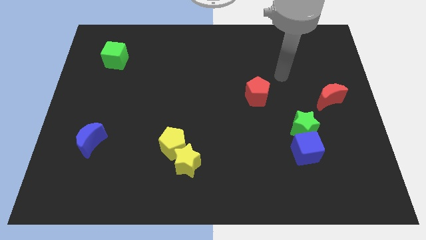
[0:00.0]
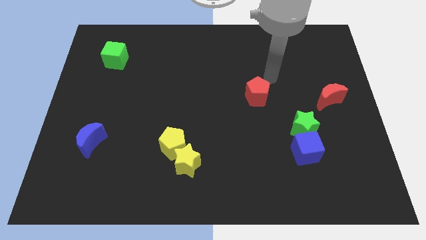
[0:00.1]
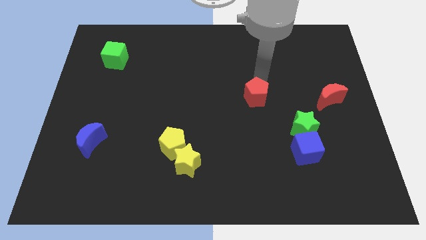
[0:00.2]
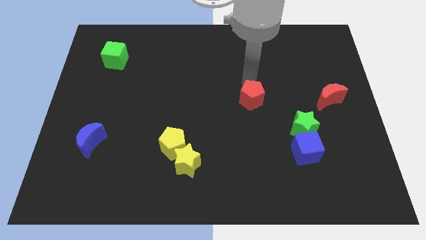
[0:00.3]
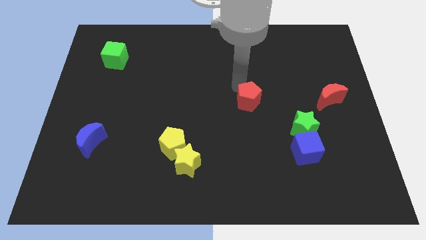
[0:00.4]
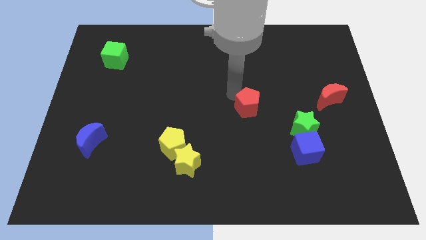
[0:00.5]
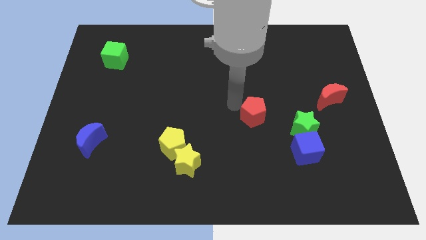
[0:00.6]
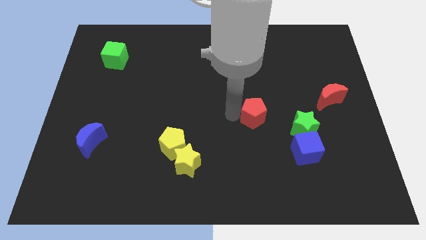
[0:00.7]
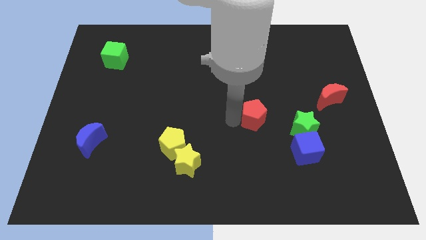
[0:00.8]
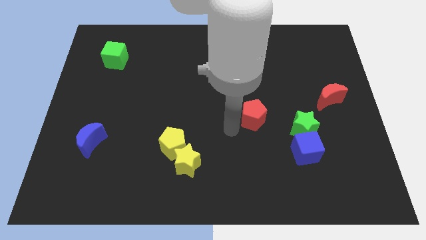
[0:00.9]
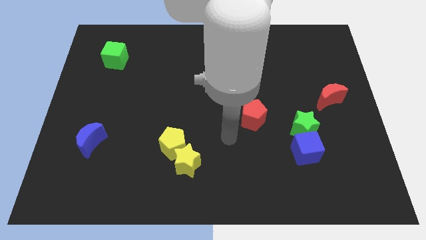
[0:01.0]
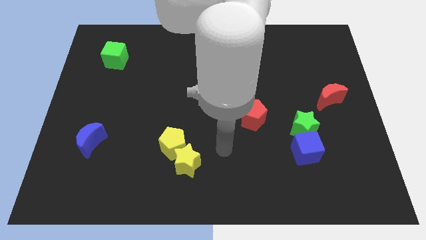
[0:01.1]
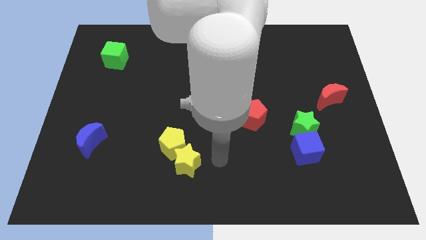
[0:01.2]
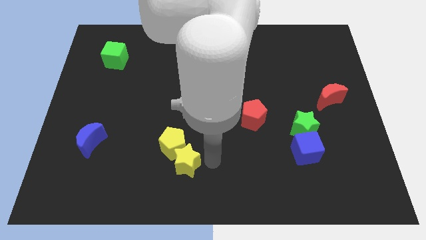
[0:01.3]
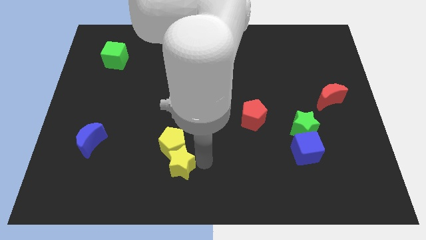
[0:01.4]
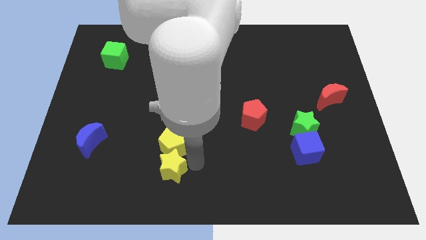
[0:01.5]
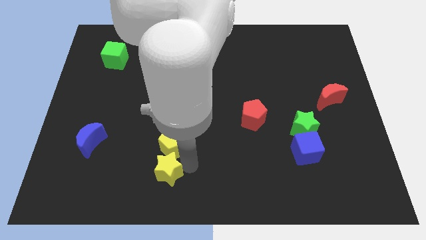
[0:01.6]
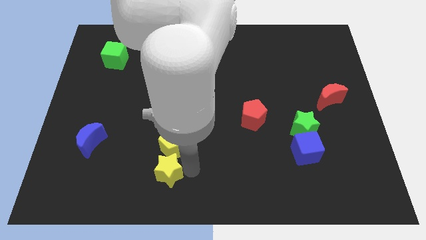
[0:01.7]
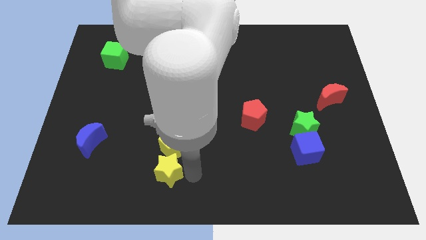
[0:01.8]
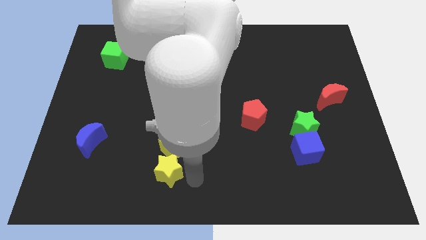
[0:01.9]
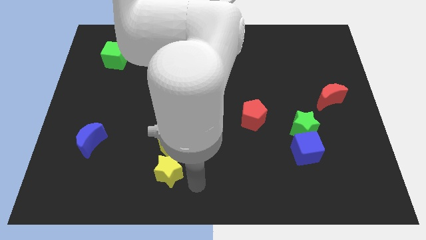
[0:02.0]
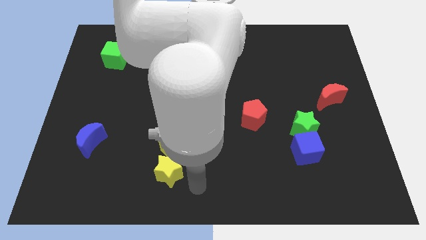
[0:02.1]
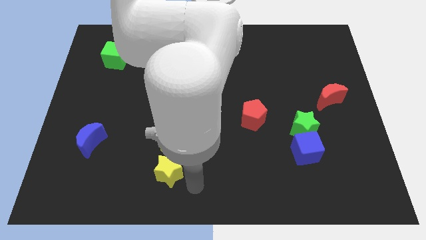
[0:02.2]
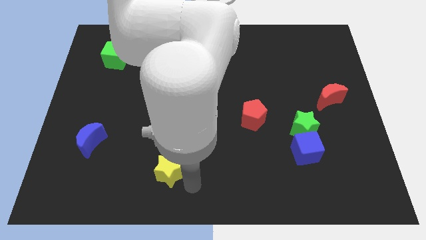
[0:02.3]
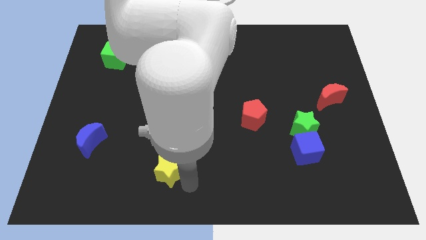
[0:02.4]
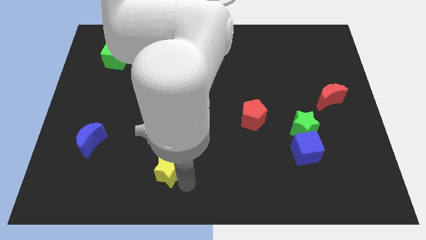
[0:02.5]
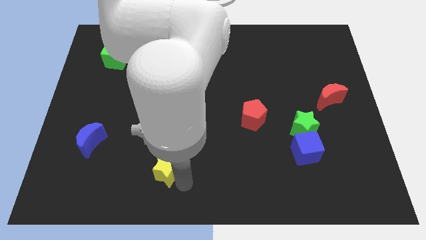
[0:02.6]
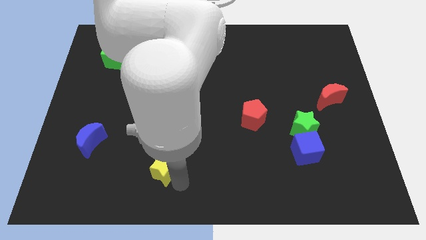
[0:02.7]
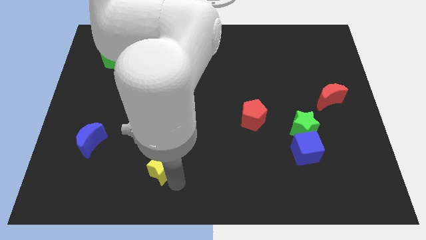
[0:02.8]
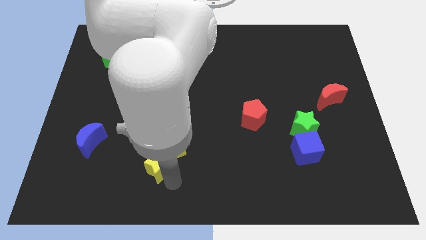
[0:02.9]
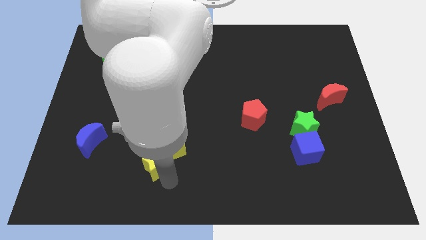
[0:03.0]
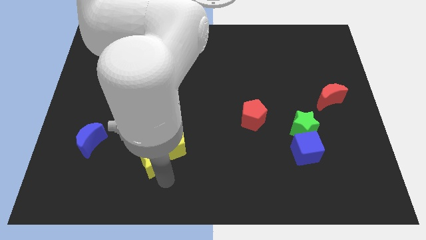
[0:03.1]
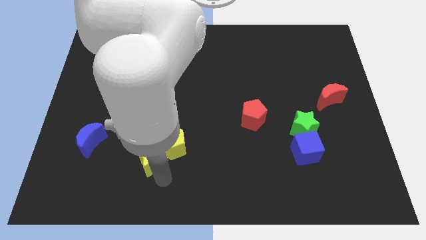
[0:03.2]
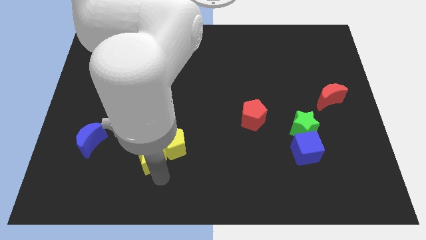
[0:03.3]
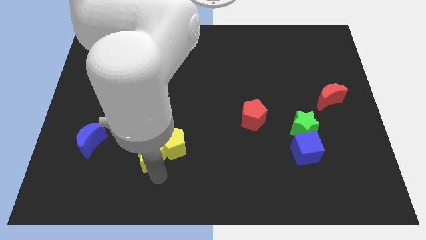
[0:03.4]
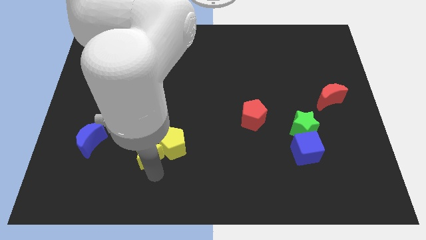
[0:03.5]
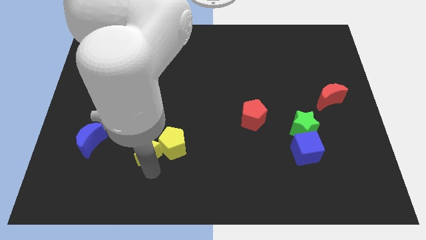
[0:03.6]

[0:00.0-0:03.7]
move the yellow star slightly upwards and to the left diagonally

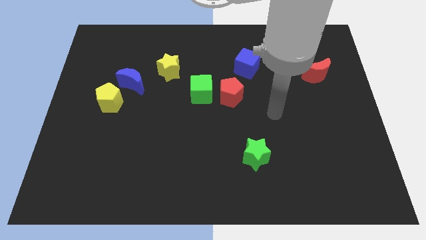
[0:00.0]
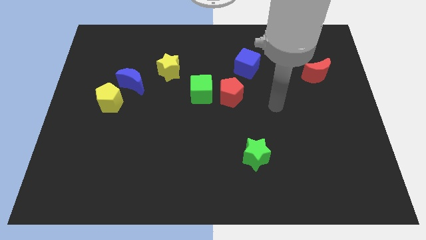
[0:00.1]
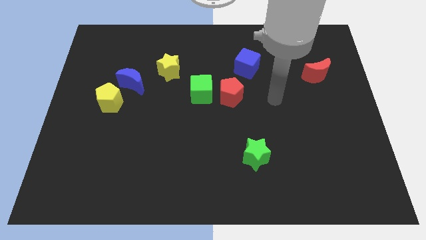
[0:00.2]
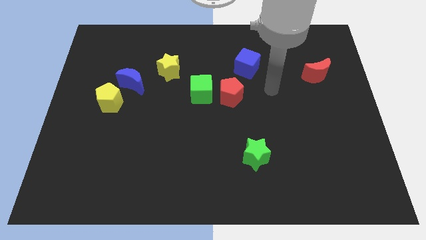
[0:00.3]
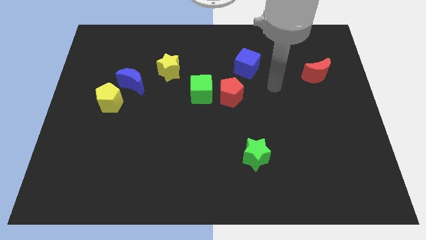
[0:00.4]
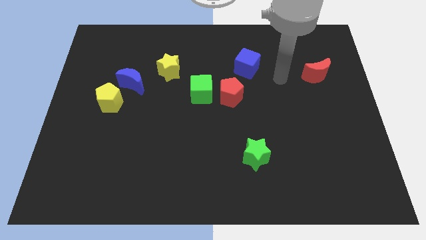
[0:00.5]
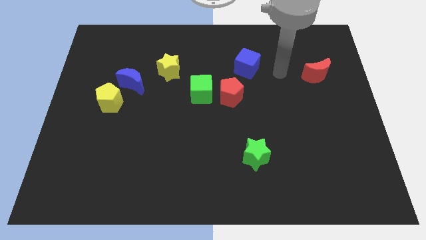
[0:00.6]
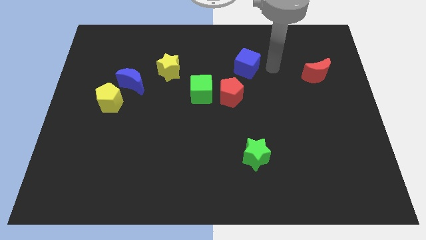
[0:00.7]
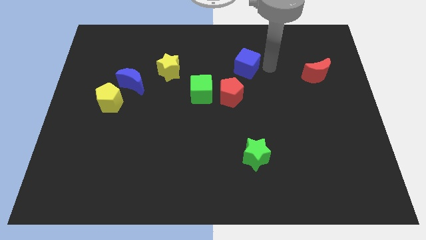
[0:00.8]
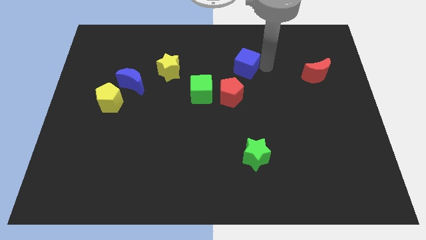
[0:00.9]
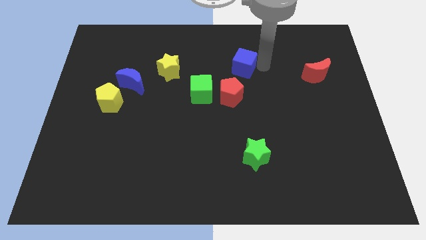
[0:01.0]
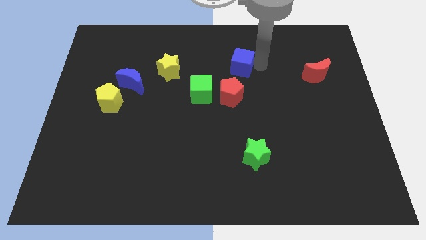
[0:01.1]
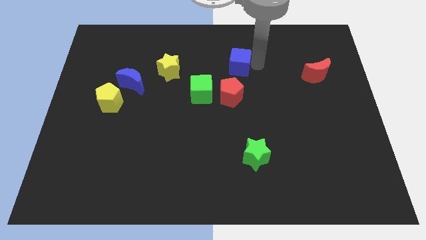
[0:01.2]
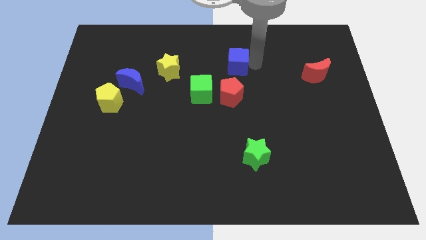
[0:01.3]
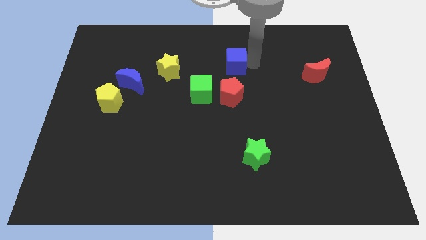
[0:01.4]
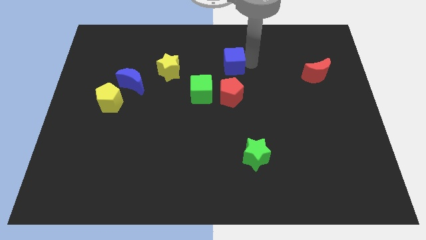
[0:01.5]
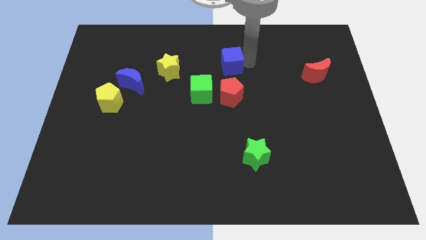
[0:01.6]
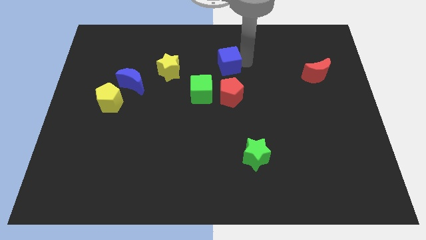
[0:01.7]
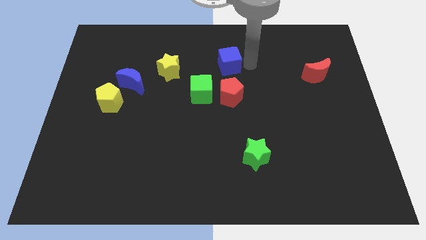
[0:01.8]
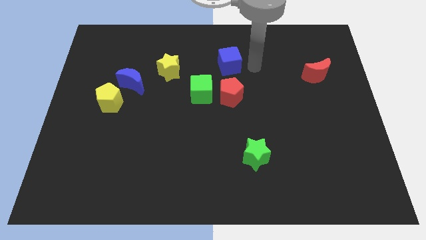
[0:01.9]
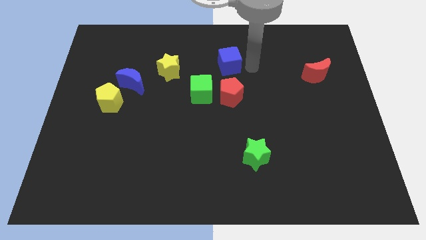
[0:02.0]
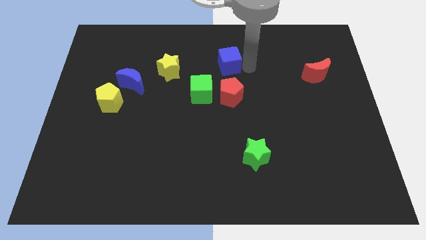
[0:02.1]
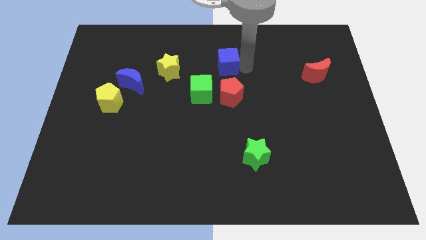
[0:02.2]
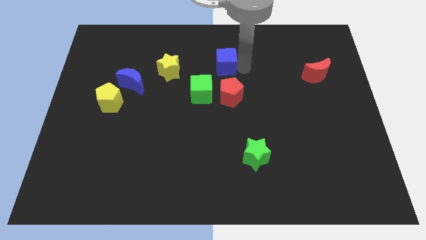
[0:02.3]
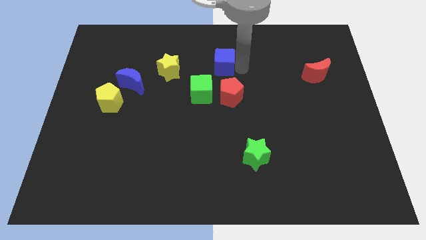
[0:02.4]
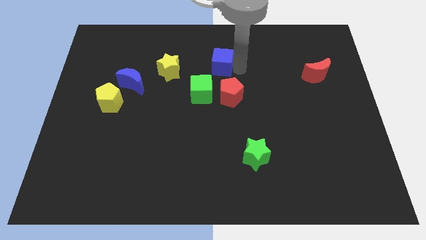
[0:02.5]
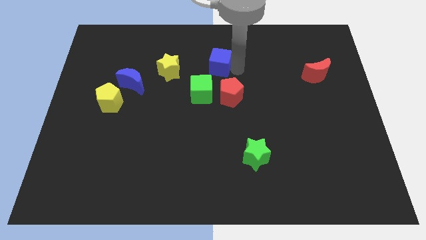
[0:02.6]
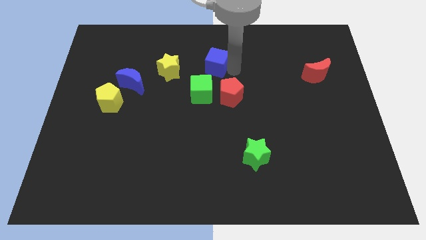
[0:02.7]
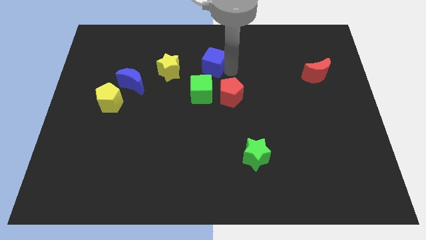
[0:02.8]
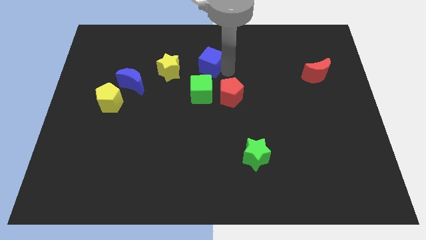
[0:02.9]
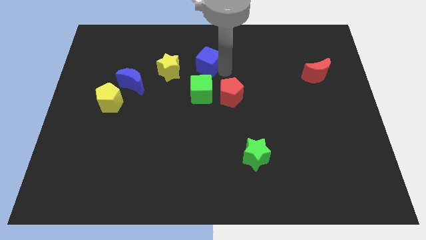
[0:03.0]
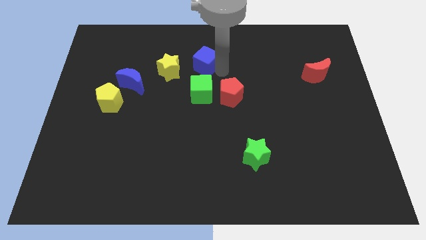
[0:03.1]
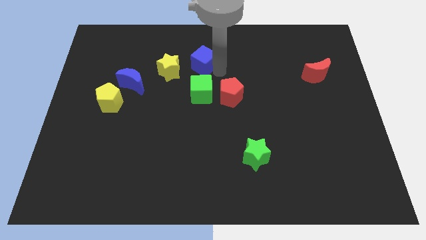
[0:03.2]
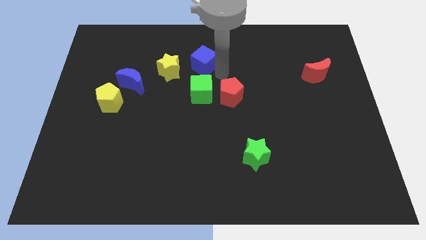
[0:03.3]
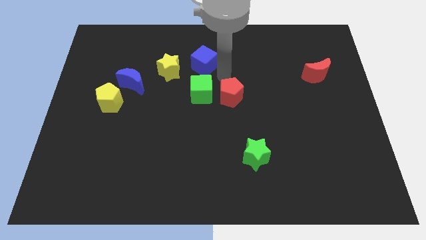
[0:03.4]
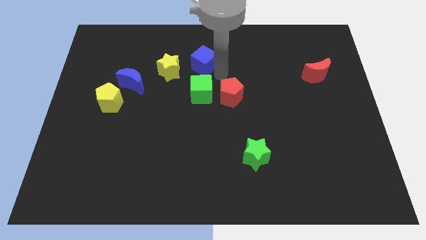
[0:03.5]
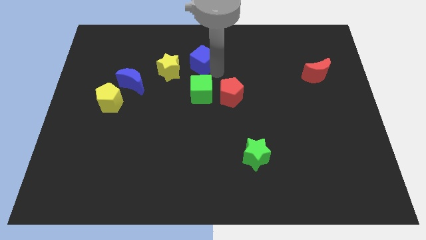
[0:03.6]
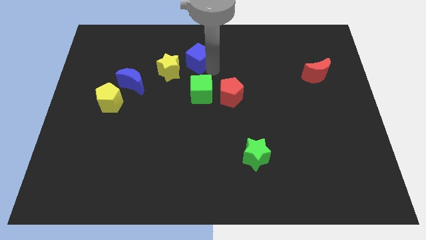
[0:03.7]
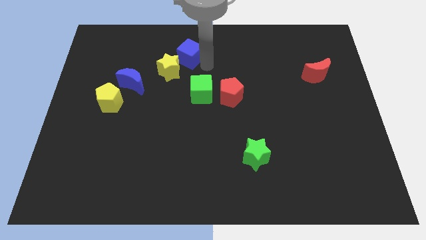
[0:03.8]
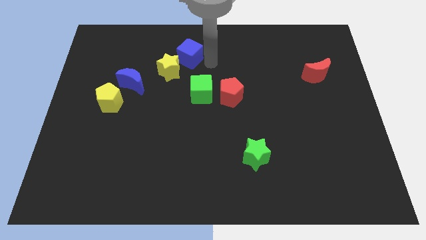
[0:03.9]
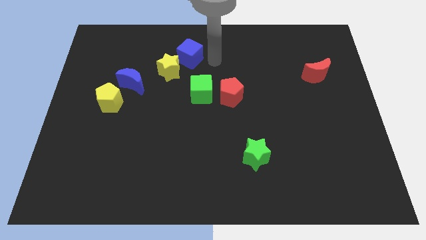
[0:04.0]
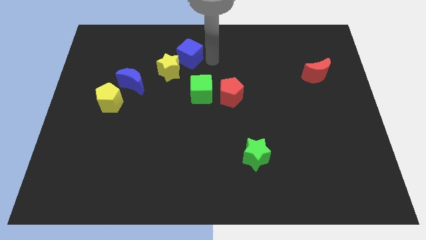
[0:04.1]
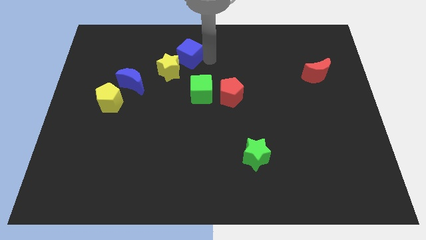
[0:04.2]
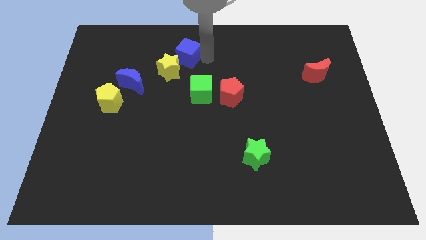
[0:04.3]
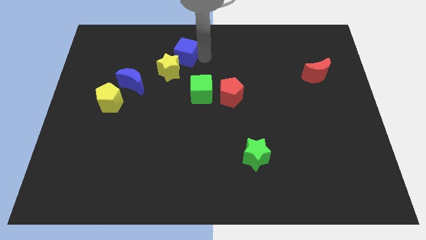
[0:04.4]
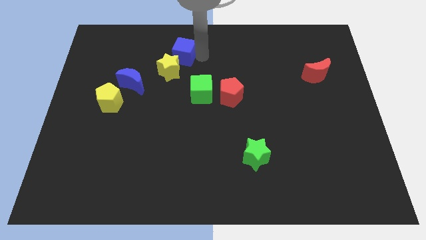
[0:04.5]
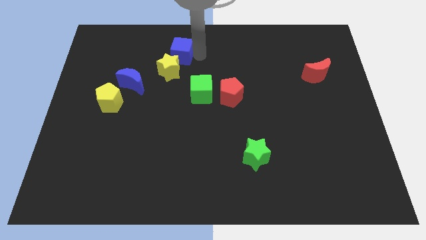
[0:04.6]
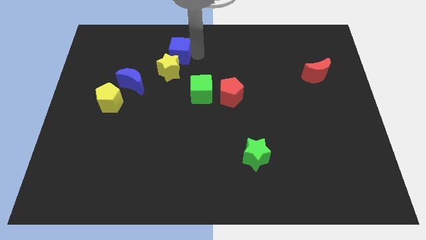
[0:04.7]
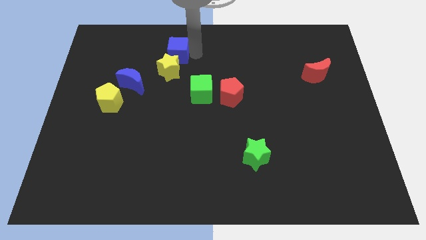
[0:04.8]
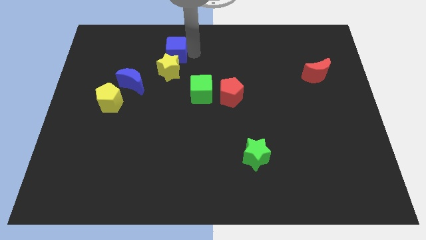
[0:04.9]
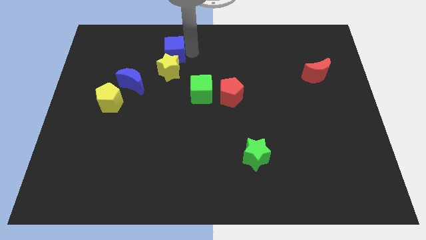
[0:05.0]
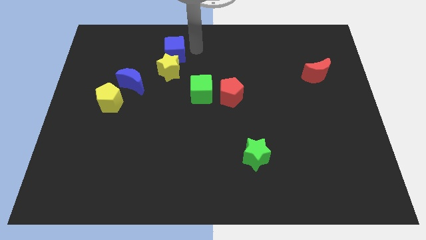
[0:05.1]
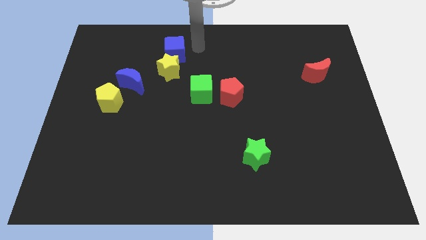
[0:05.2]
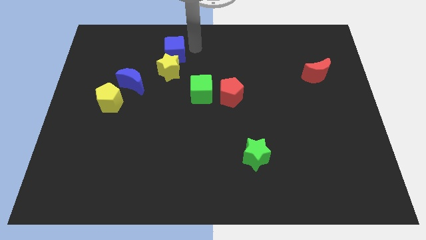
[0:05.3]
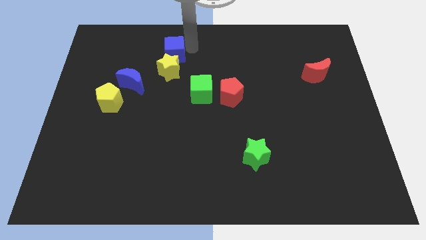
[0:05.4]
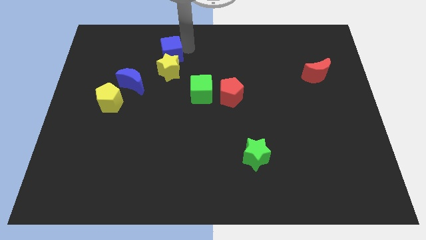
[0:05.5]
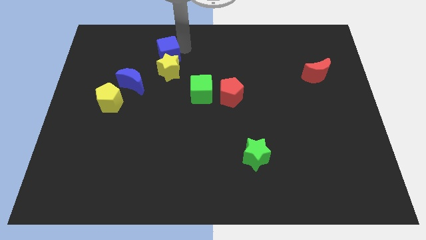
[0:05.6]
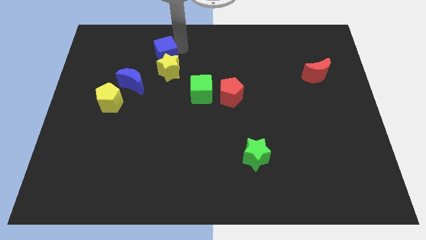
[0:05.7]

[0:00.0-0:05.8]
push the blue cube left
